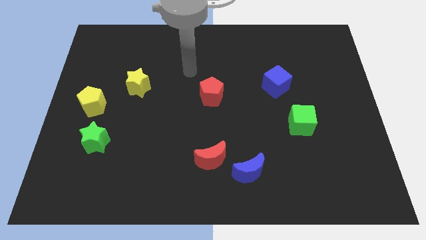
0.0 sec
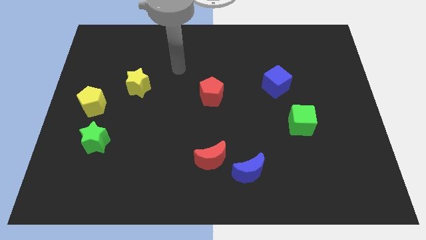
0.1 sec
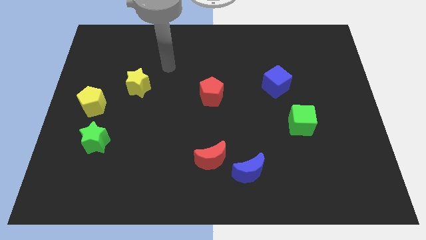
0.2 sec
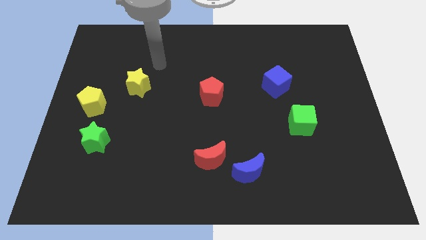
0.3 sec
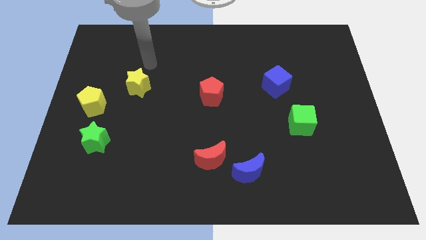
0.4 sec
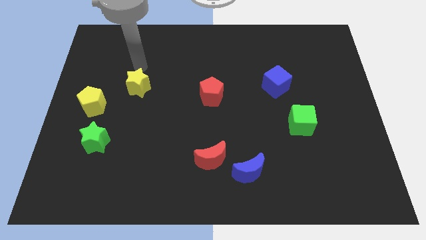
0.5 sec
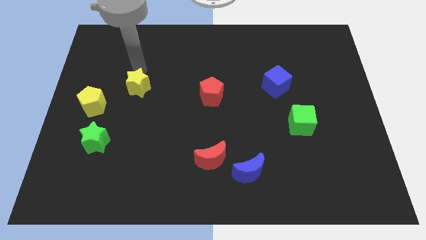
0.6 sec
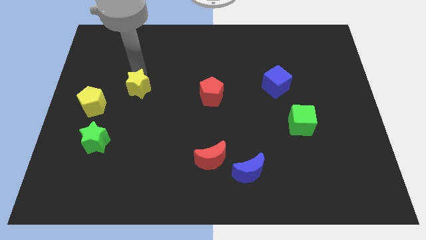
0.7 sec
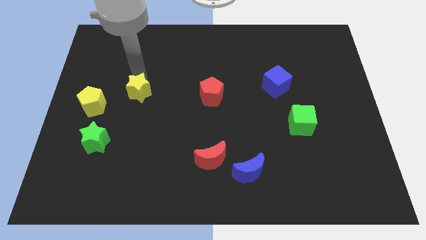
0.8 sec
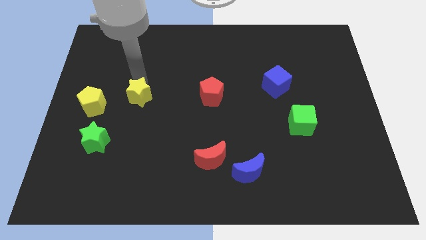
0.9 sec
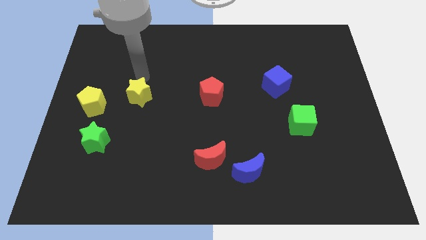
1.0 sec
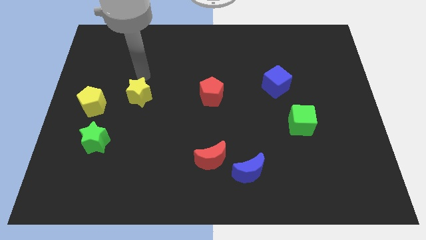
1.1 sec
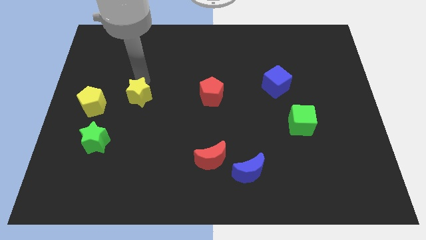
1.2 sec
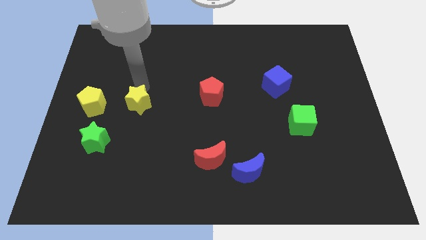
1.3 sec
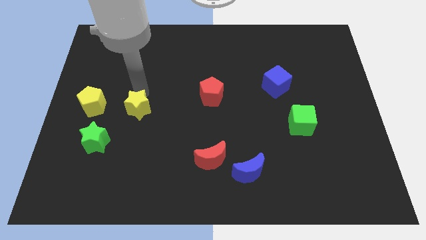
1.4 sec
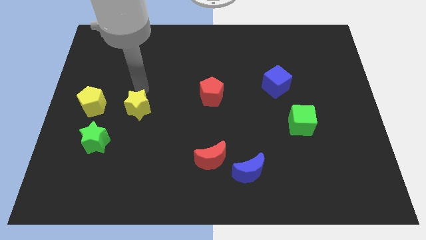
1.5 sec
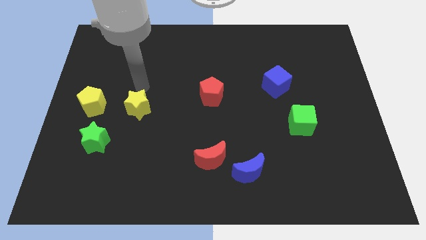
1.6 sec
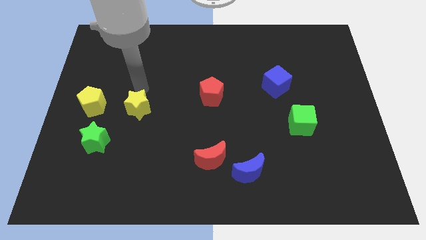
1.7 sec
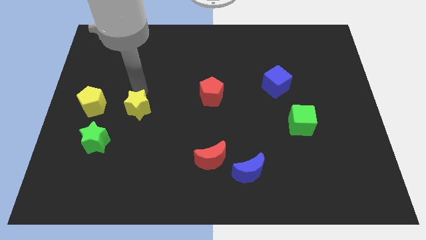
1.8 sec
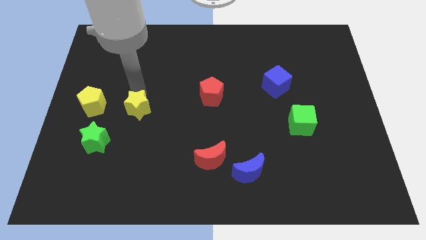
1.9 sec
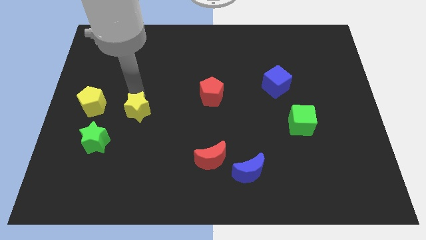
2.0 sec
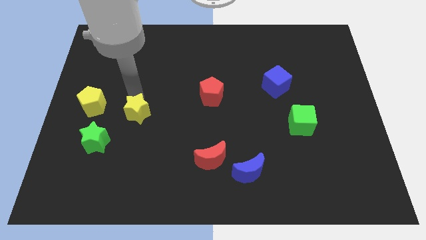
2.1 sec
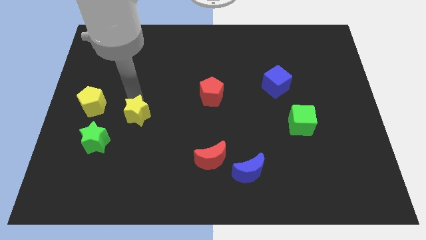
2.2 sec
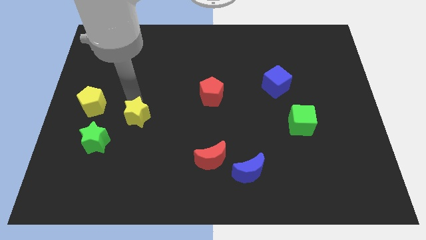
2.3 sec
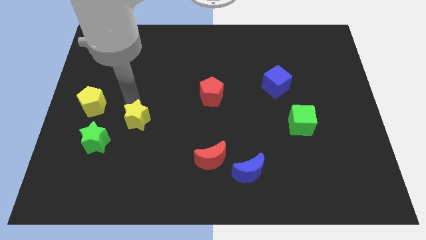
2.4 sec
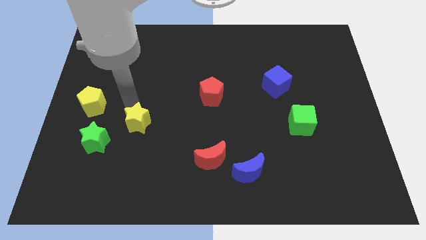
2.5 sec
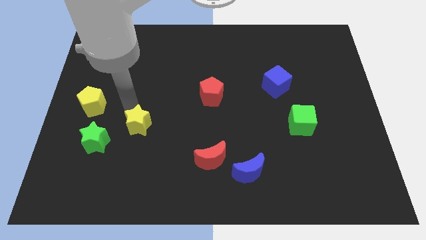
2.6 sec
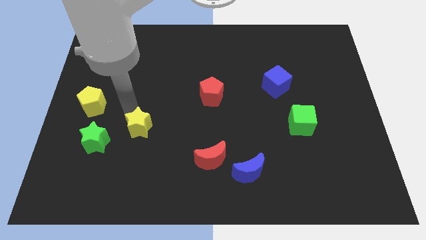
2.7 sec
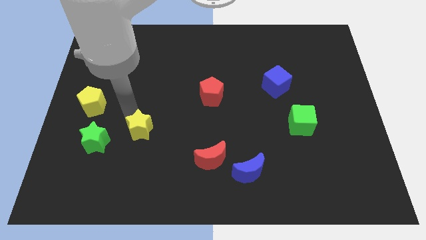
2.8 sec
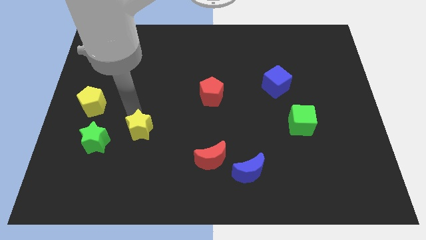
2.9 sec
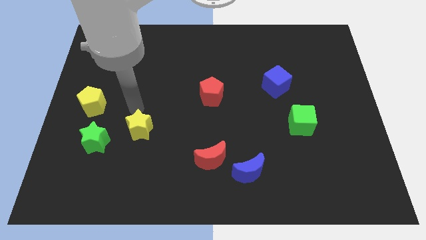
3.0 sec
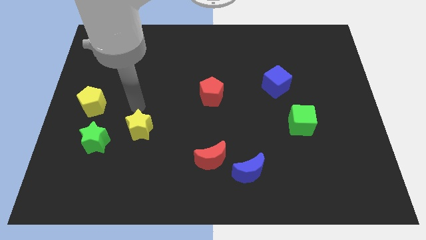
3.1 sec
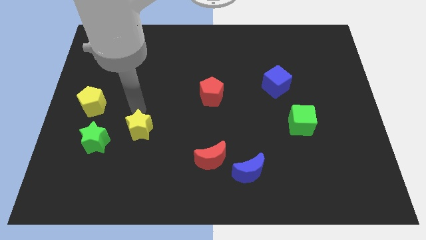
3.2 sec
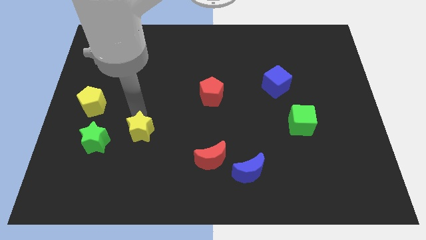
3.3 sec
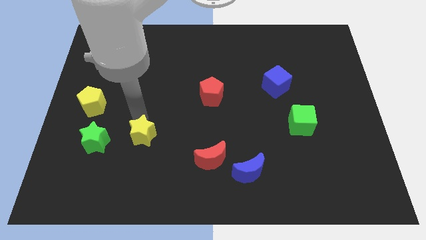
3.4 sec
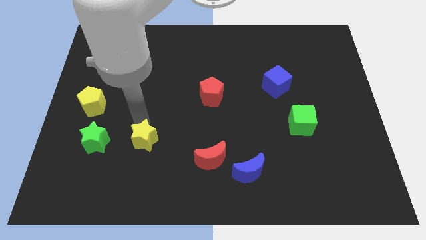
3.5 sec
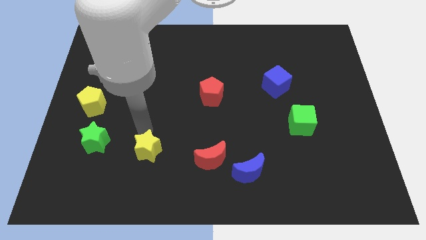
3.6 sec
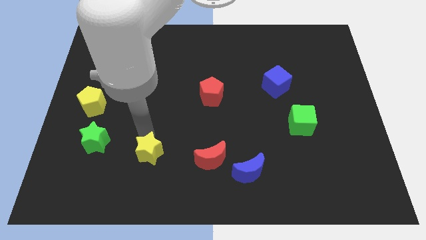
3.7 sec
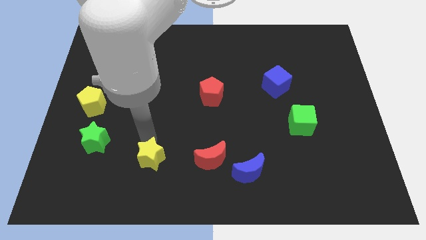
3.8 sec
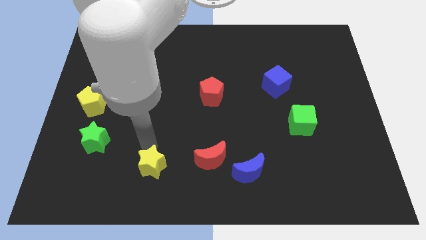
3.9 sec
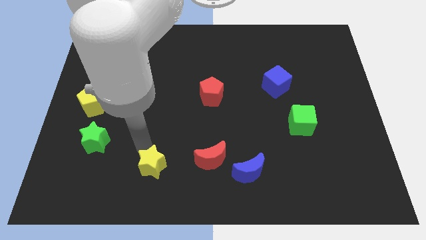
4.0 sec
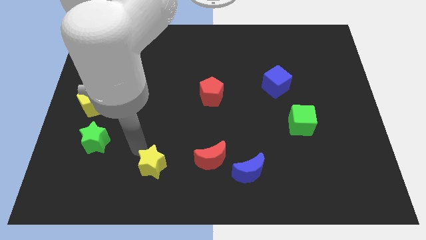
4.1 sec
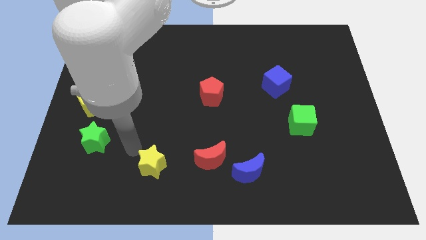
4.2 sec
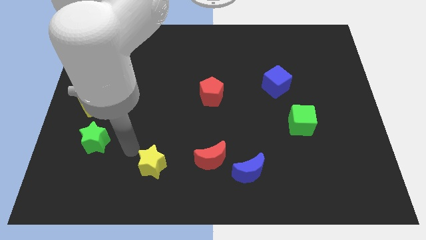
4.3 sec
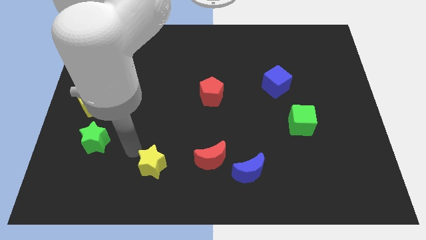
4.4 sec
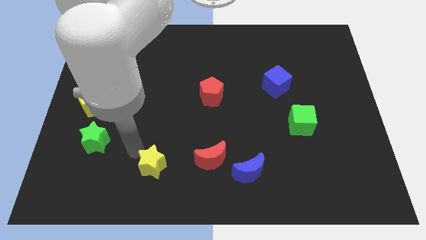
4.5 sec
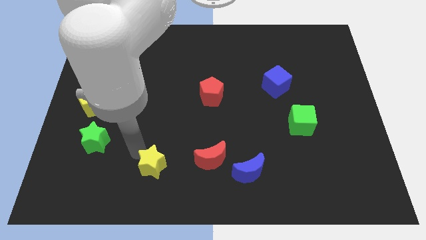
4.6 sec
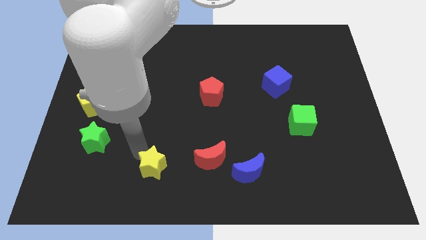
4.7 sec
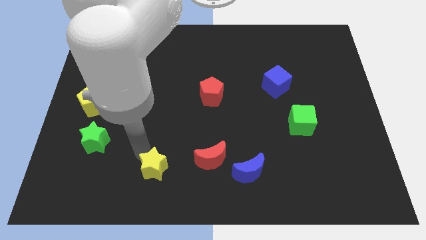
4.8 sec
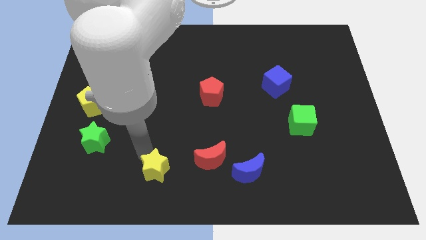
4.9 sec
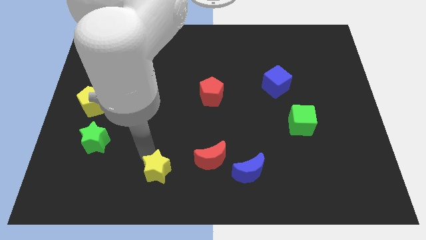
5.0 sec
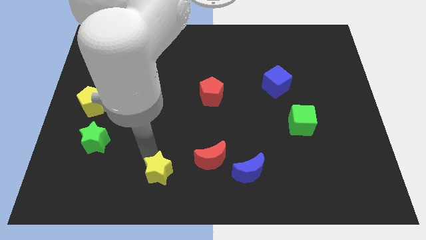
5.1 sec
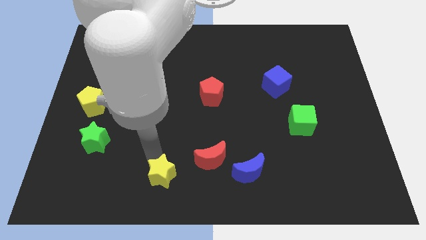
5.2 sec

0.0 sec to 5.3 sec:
put the yellow star to the bottom side
